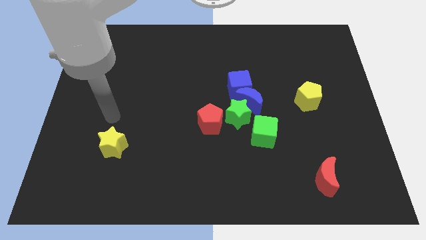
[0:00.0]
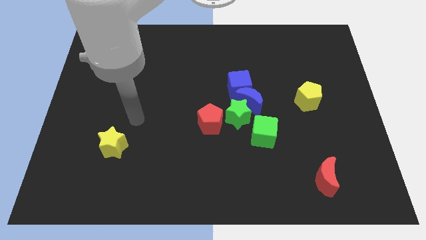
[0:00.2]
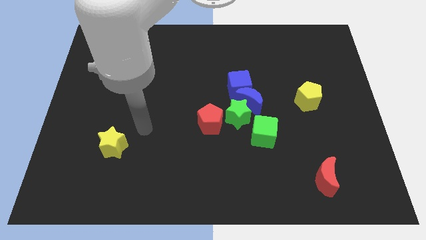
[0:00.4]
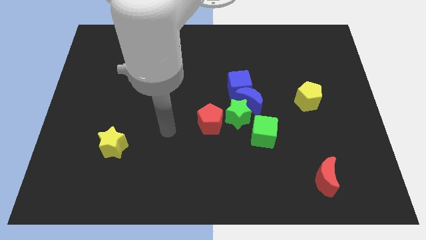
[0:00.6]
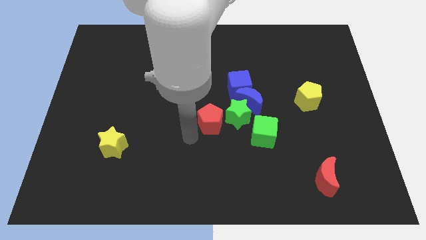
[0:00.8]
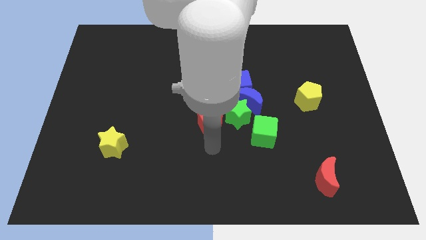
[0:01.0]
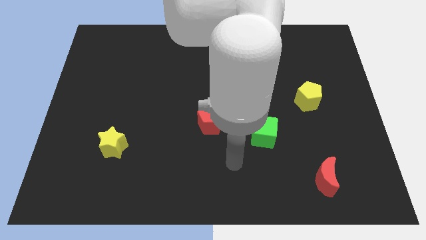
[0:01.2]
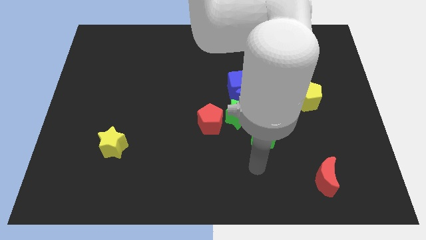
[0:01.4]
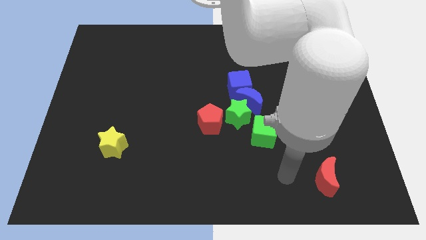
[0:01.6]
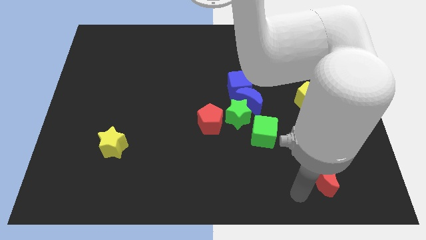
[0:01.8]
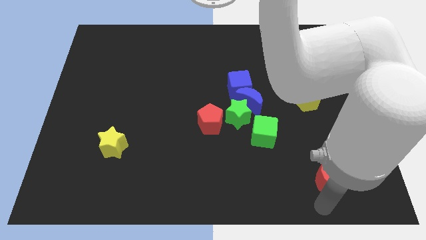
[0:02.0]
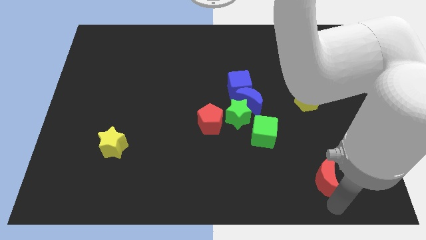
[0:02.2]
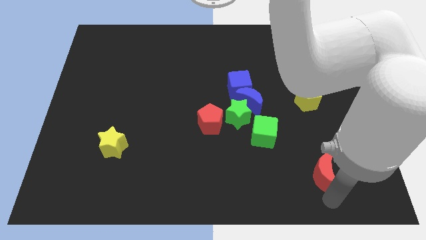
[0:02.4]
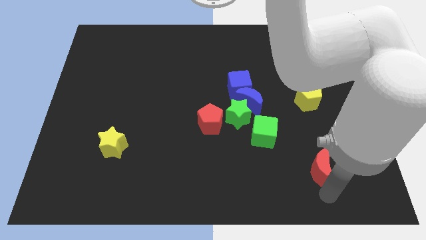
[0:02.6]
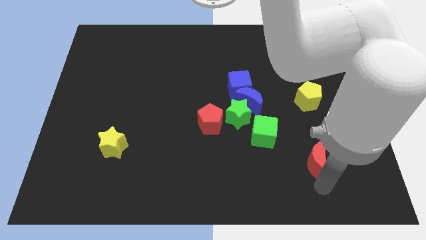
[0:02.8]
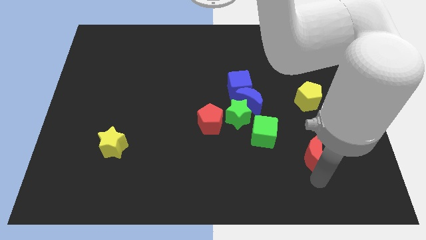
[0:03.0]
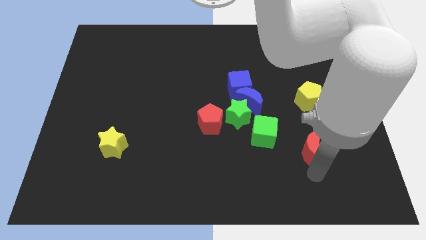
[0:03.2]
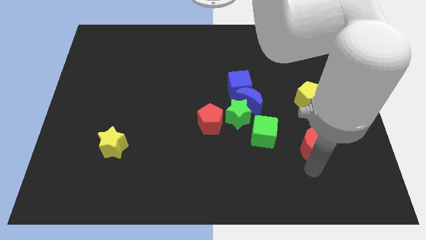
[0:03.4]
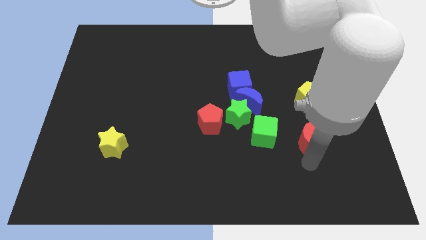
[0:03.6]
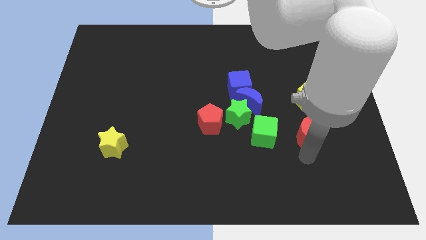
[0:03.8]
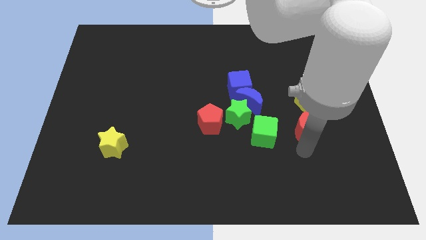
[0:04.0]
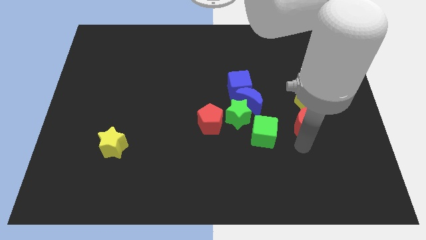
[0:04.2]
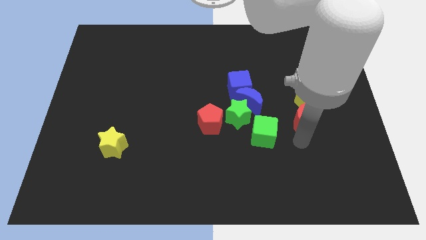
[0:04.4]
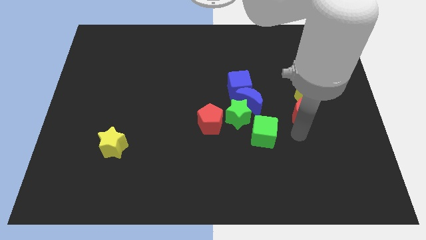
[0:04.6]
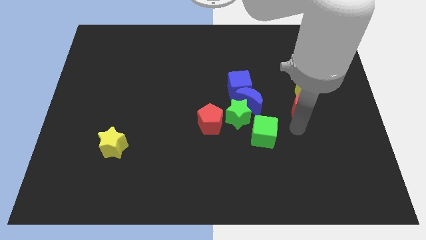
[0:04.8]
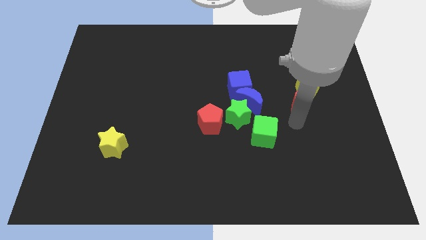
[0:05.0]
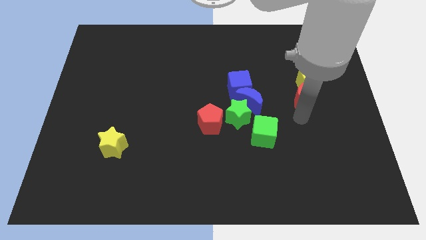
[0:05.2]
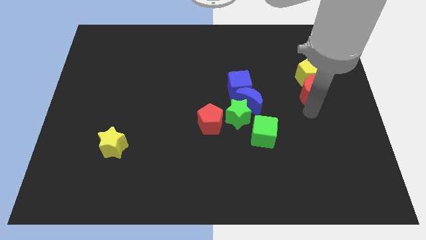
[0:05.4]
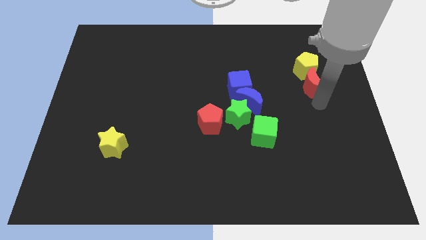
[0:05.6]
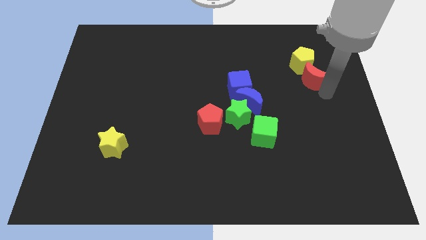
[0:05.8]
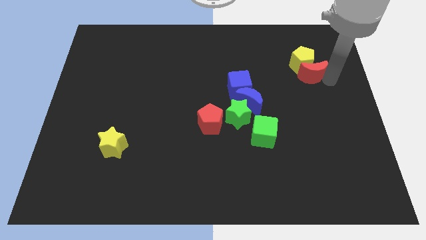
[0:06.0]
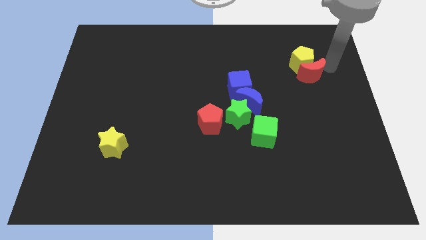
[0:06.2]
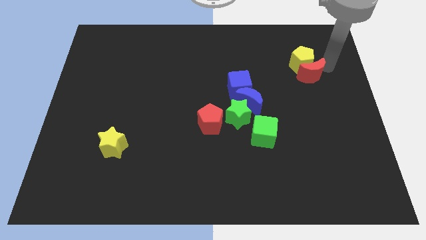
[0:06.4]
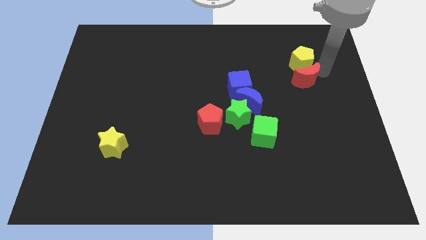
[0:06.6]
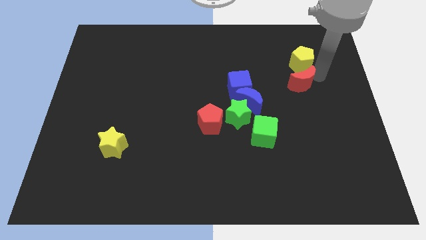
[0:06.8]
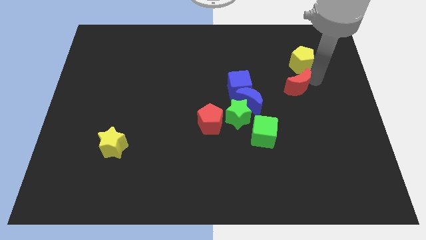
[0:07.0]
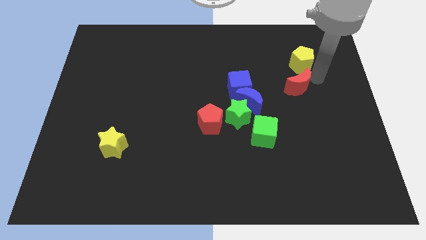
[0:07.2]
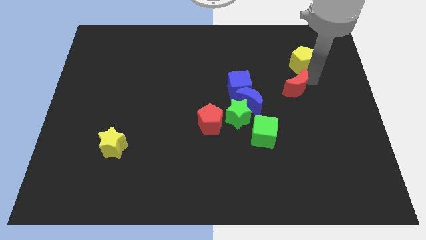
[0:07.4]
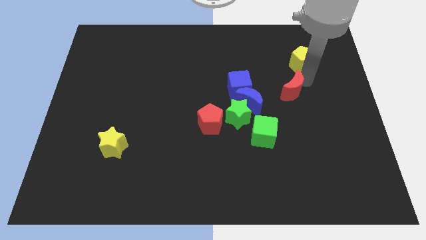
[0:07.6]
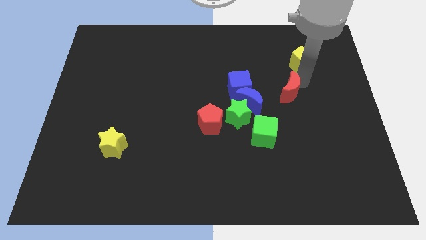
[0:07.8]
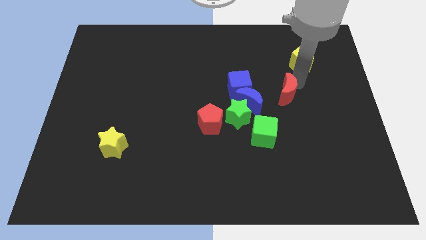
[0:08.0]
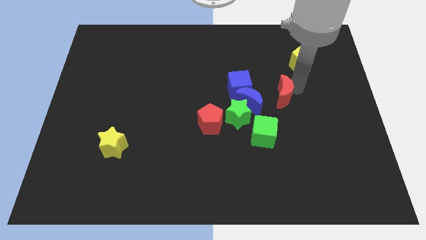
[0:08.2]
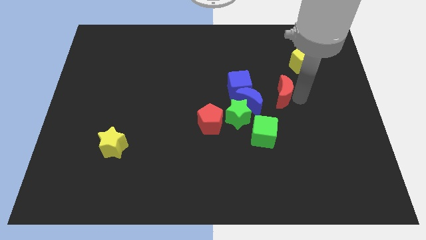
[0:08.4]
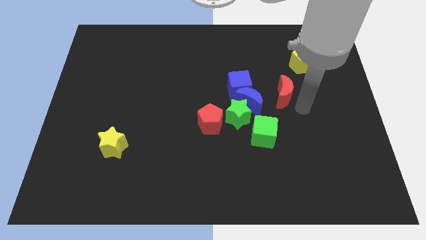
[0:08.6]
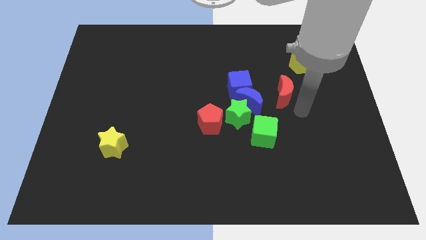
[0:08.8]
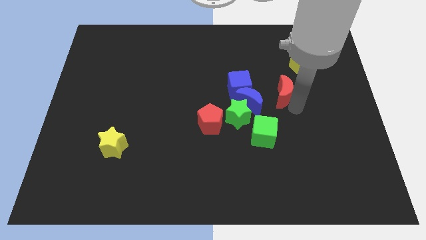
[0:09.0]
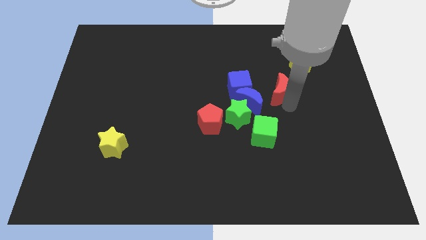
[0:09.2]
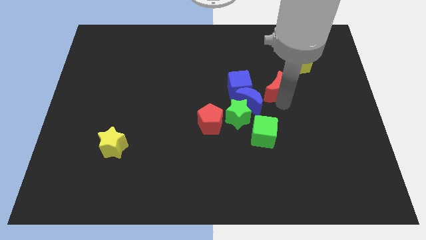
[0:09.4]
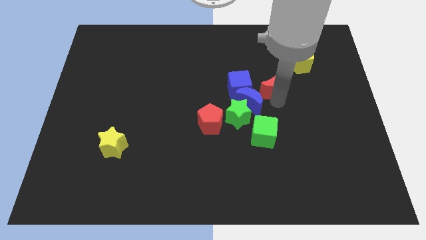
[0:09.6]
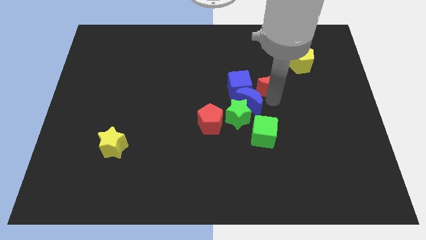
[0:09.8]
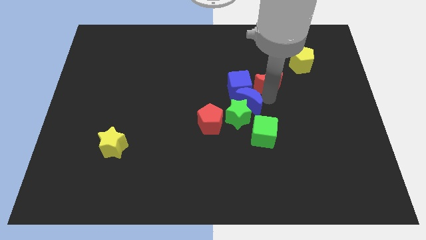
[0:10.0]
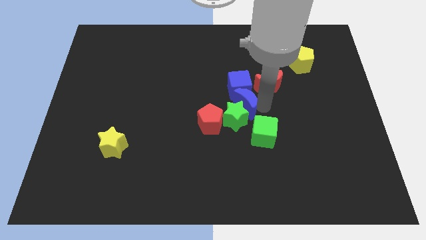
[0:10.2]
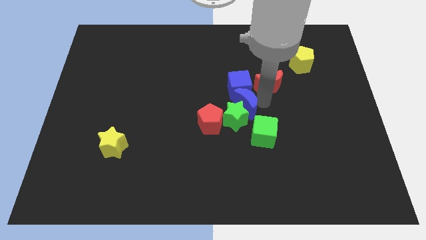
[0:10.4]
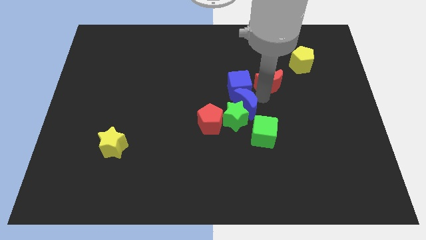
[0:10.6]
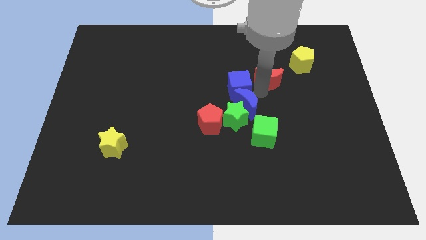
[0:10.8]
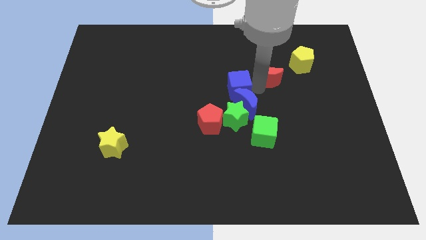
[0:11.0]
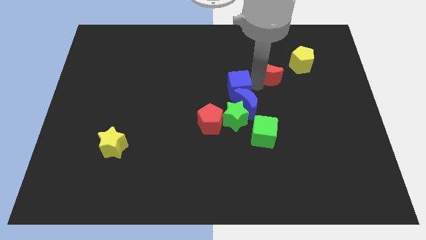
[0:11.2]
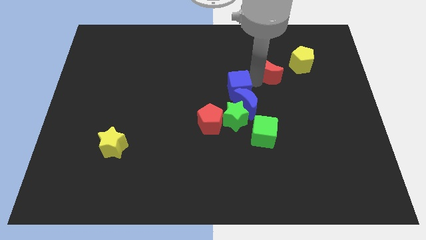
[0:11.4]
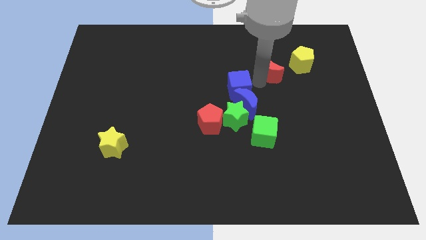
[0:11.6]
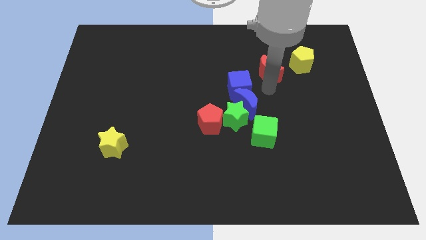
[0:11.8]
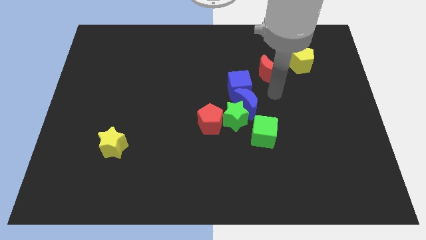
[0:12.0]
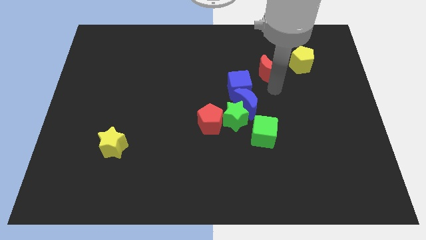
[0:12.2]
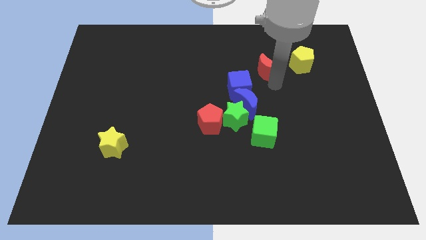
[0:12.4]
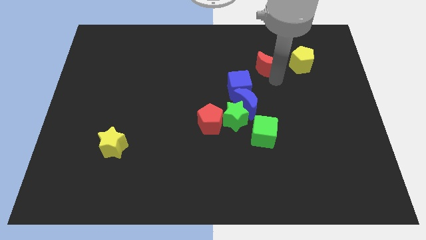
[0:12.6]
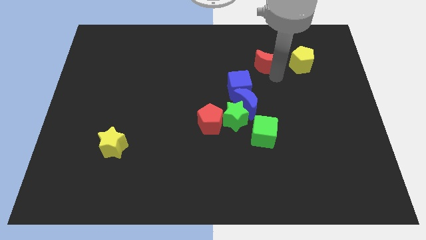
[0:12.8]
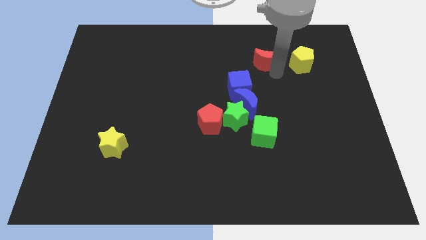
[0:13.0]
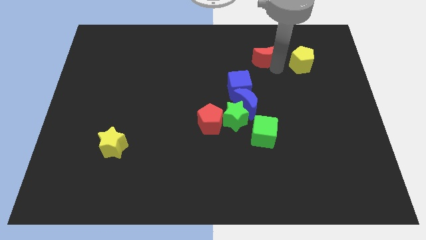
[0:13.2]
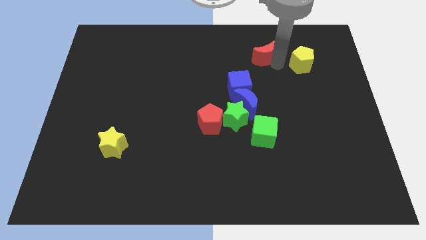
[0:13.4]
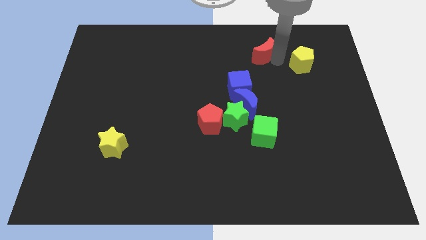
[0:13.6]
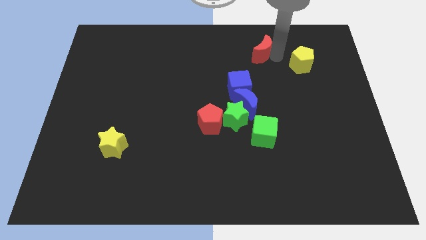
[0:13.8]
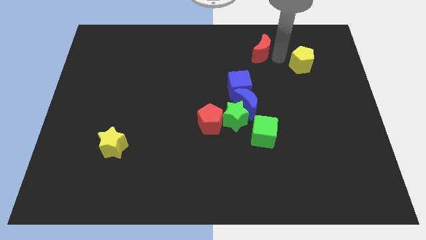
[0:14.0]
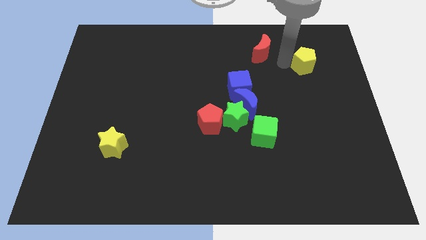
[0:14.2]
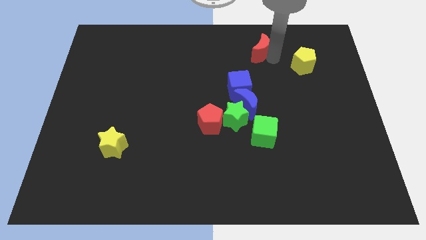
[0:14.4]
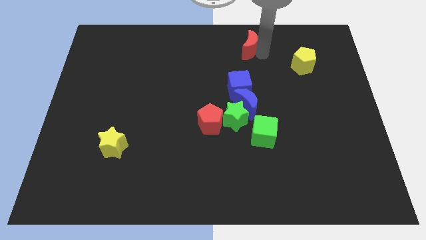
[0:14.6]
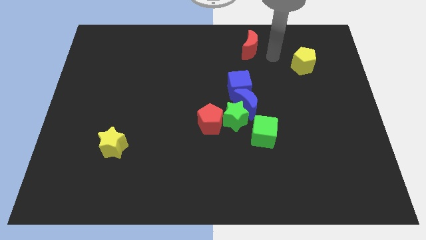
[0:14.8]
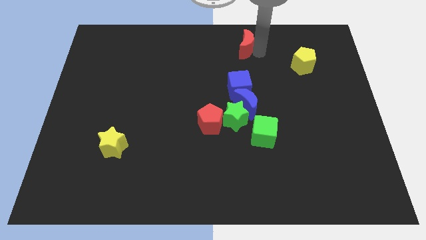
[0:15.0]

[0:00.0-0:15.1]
push the red moon to the towards your base
